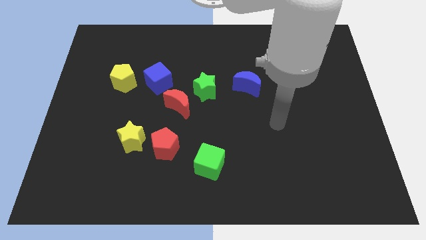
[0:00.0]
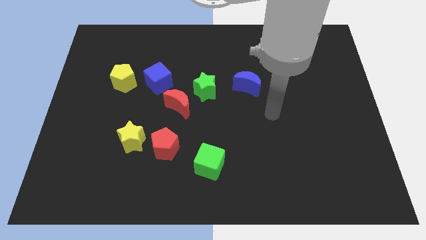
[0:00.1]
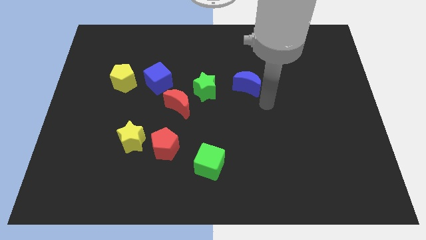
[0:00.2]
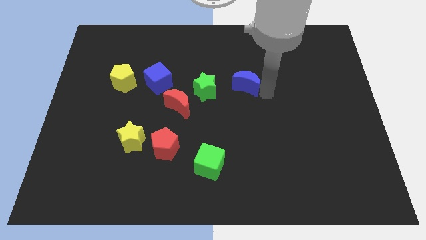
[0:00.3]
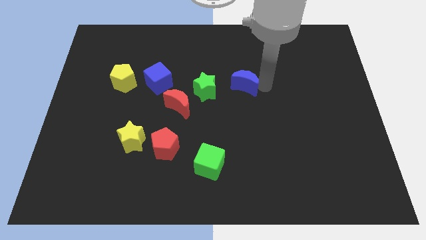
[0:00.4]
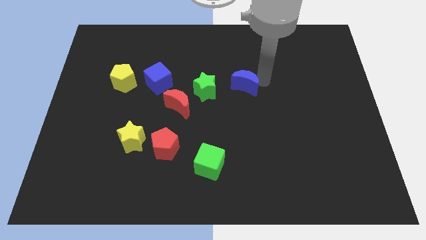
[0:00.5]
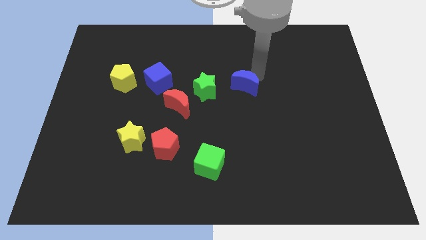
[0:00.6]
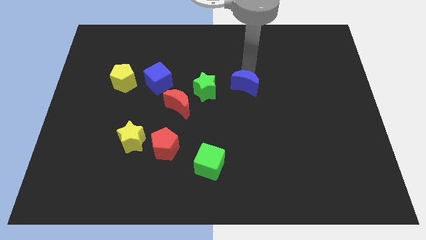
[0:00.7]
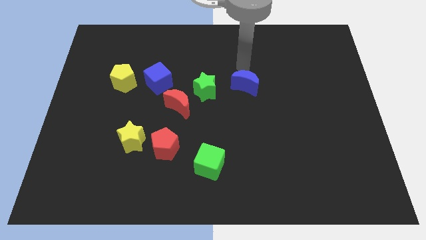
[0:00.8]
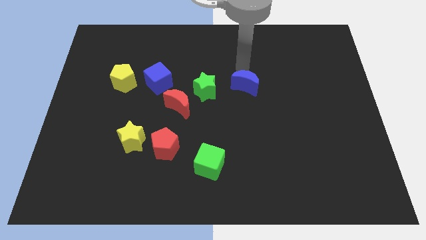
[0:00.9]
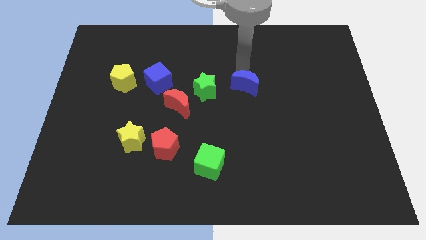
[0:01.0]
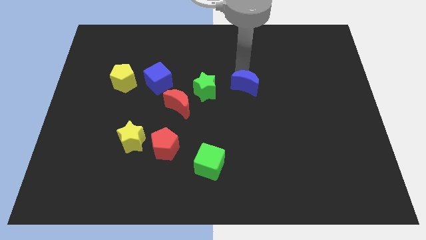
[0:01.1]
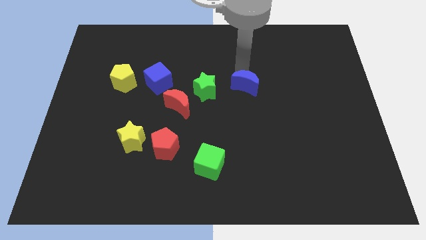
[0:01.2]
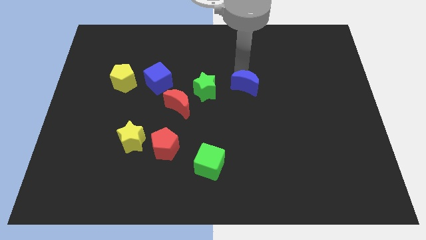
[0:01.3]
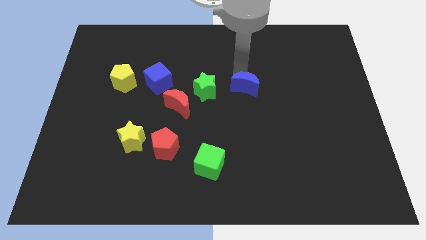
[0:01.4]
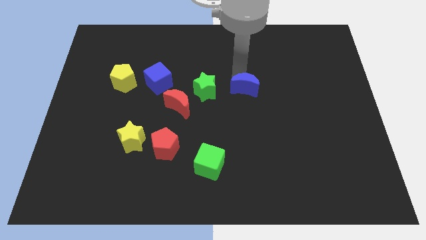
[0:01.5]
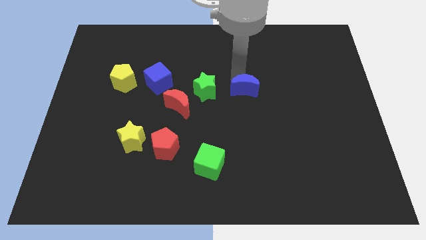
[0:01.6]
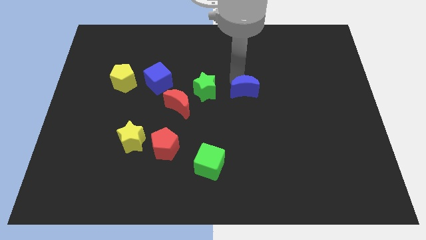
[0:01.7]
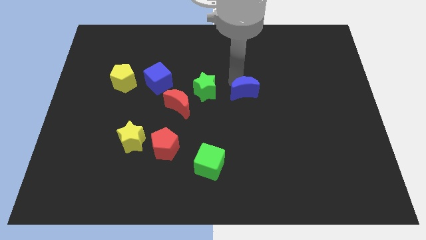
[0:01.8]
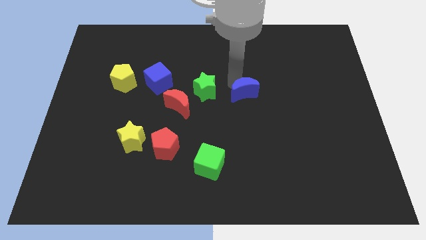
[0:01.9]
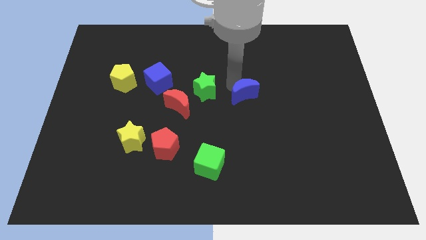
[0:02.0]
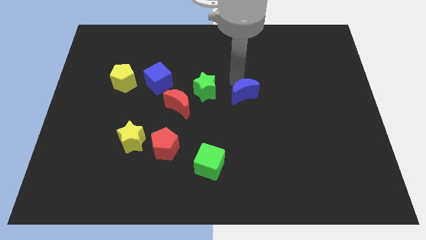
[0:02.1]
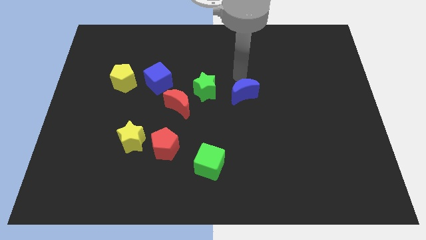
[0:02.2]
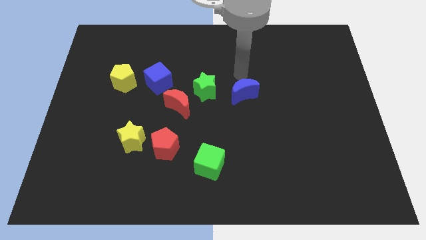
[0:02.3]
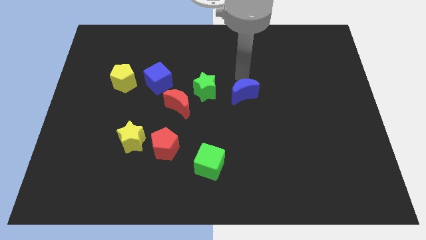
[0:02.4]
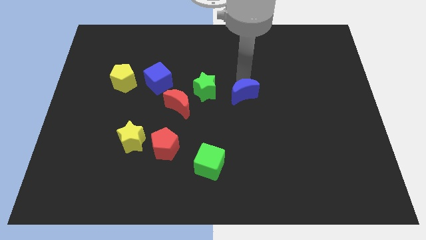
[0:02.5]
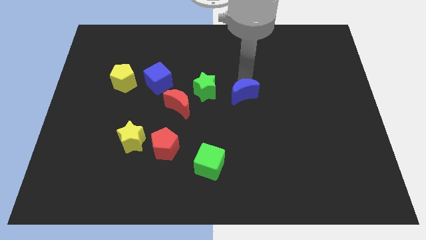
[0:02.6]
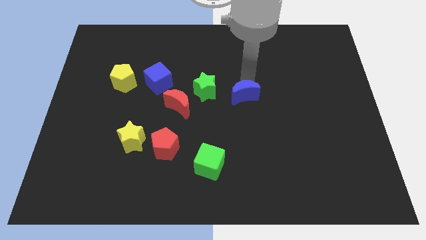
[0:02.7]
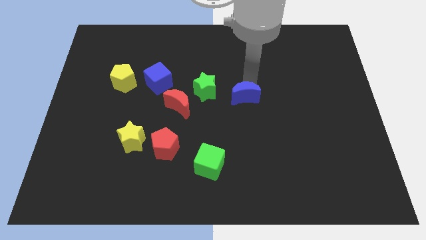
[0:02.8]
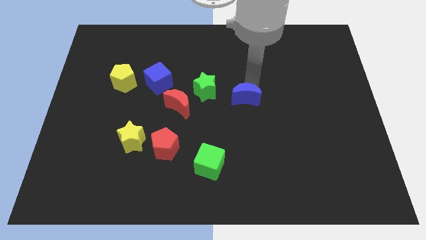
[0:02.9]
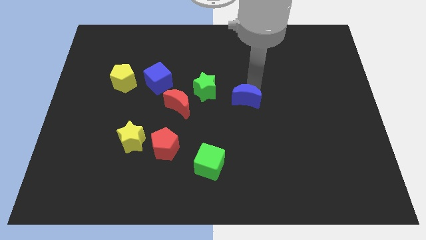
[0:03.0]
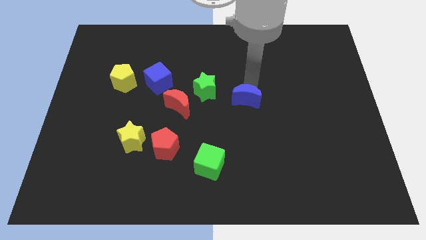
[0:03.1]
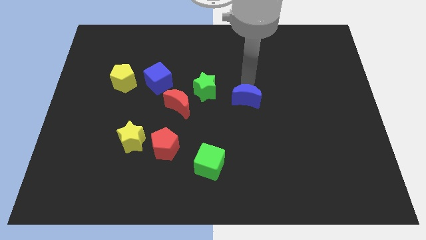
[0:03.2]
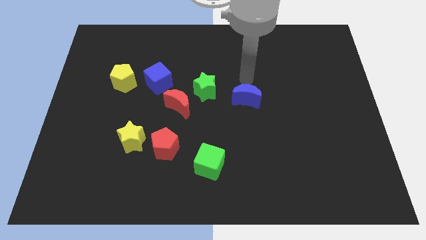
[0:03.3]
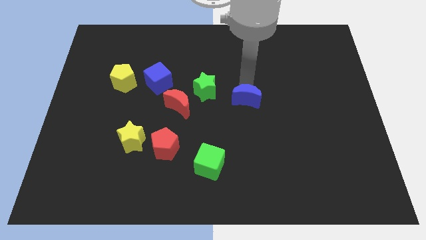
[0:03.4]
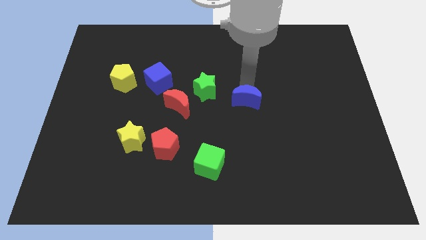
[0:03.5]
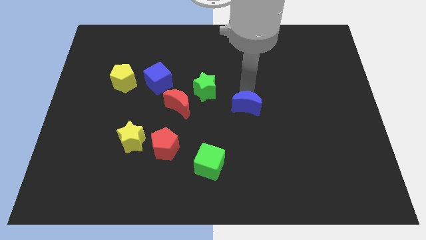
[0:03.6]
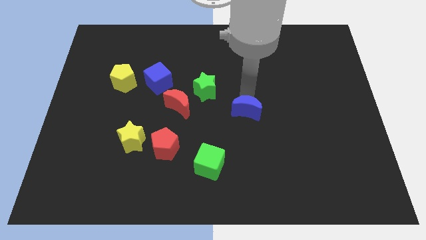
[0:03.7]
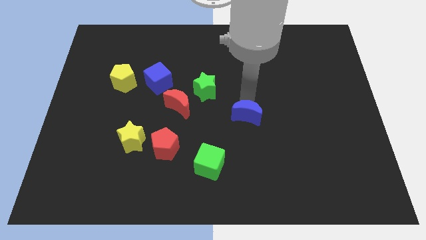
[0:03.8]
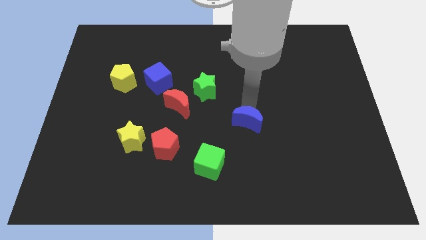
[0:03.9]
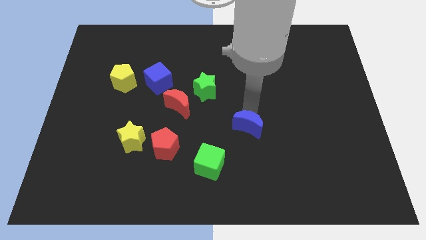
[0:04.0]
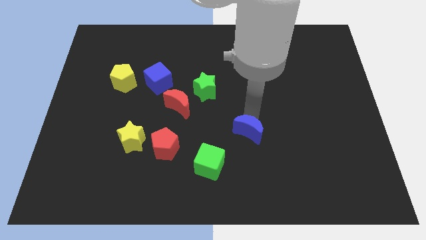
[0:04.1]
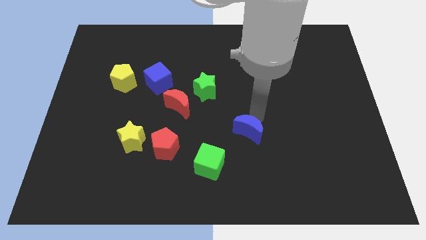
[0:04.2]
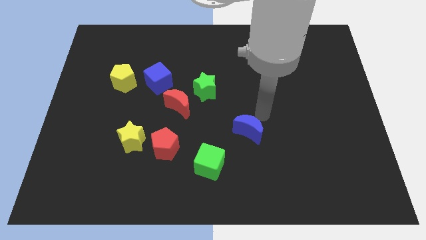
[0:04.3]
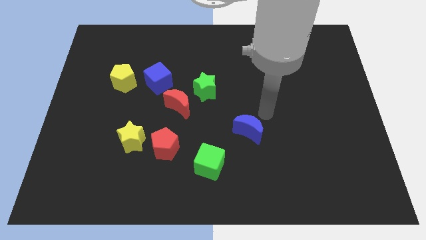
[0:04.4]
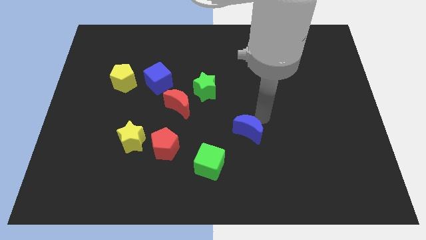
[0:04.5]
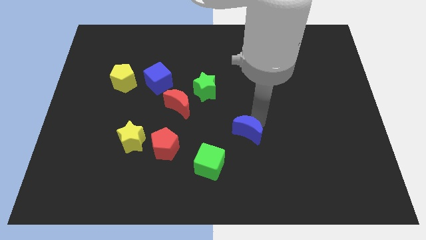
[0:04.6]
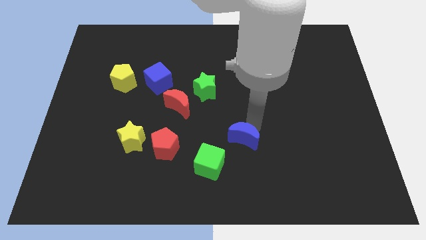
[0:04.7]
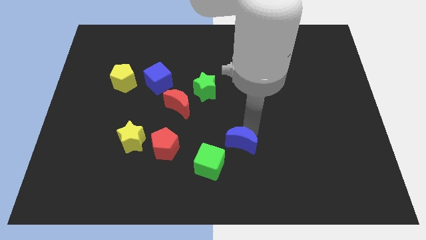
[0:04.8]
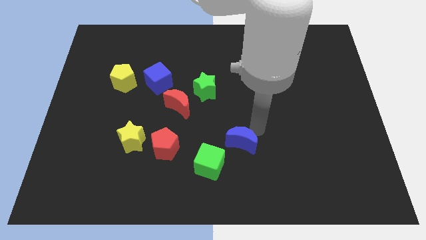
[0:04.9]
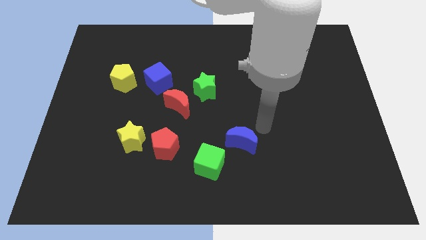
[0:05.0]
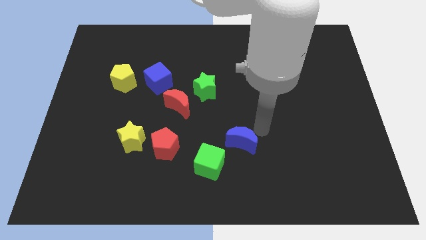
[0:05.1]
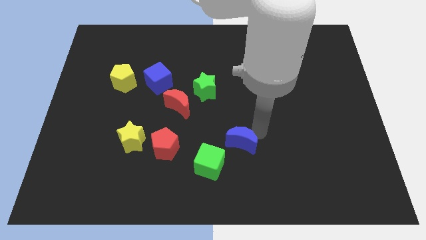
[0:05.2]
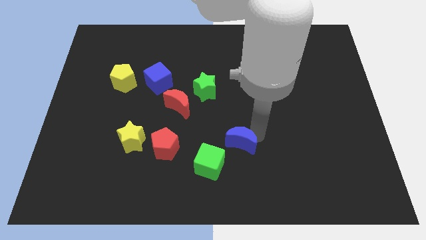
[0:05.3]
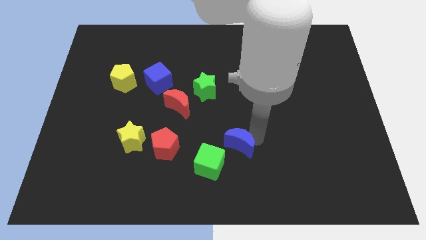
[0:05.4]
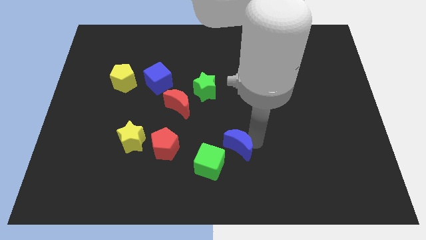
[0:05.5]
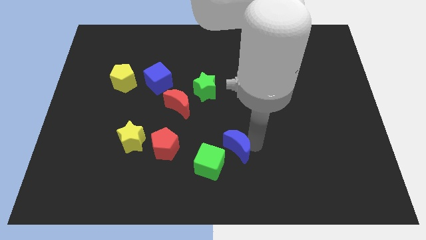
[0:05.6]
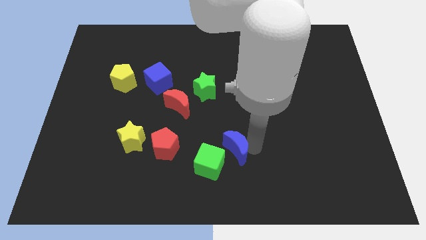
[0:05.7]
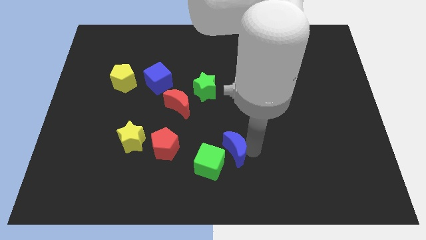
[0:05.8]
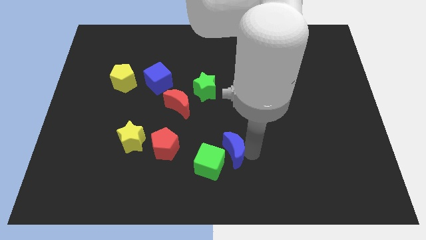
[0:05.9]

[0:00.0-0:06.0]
move the blue moon to the green cube

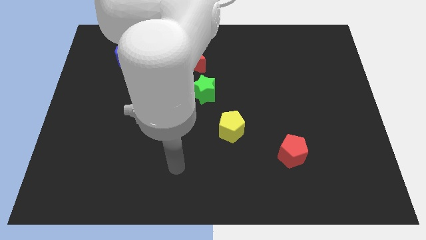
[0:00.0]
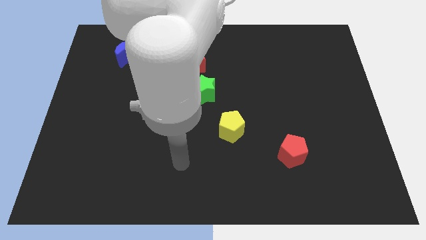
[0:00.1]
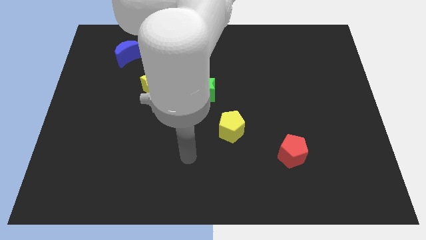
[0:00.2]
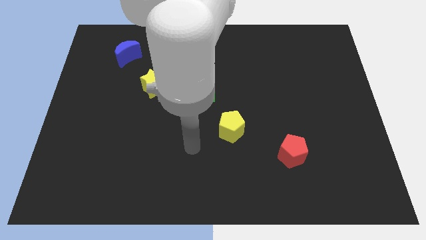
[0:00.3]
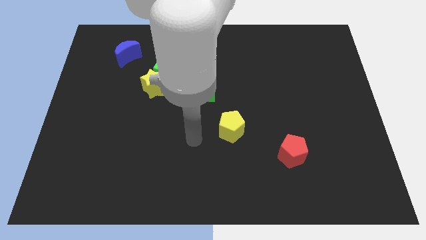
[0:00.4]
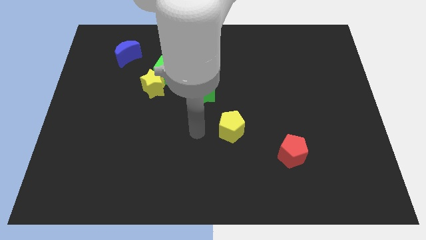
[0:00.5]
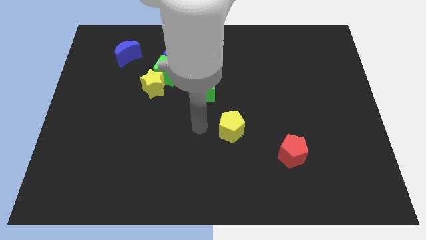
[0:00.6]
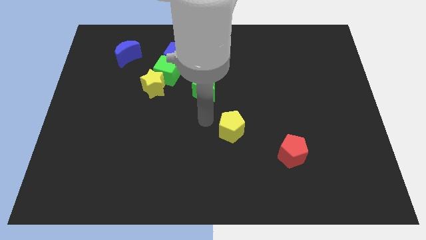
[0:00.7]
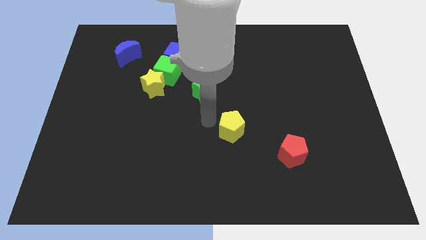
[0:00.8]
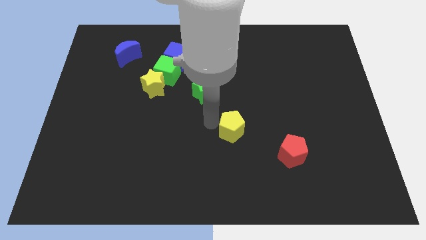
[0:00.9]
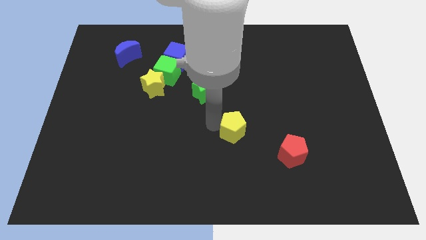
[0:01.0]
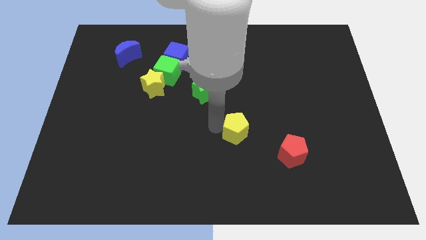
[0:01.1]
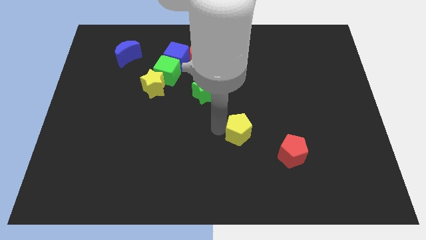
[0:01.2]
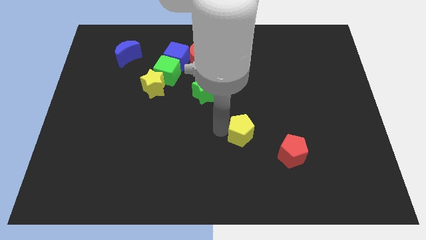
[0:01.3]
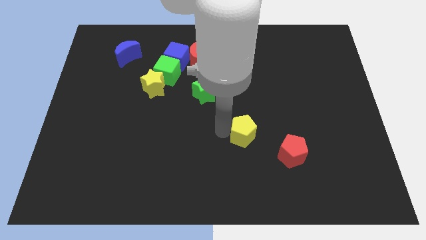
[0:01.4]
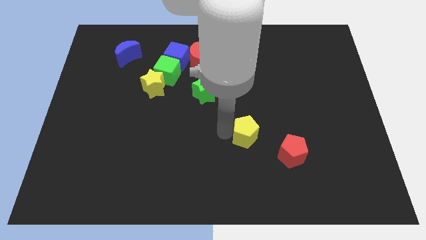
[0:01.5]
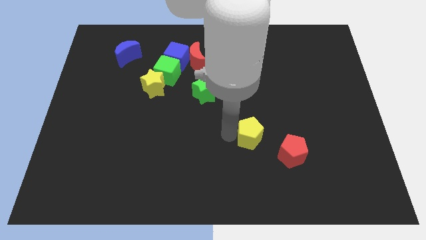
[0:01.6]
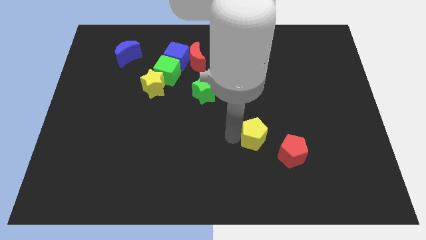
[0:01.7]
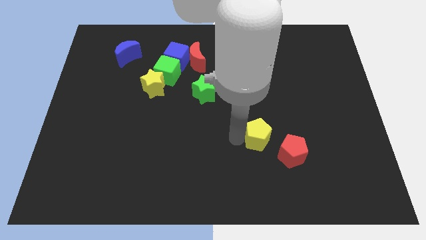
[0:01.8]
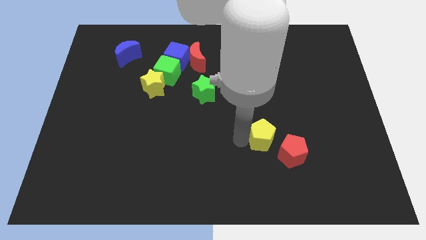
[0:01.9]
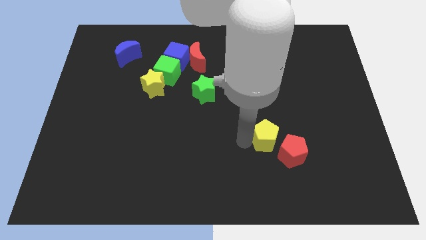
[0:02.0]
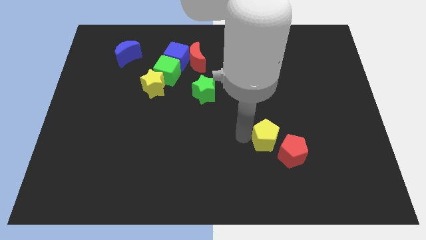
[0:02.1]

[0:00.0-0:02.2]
slide the yellow pentagon towards the red pentagon
